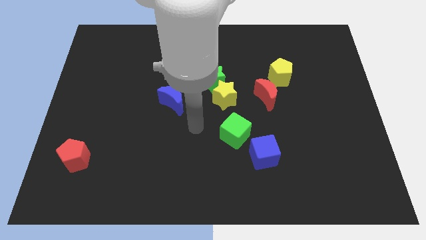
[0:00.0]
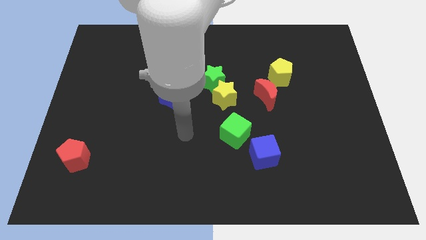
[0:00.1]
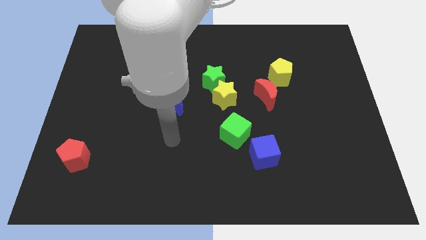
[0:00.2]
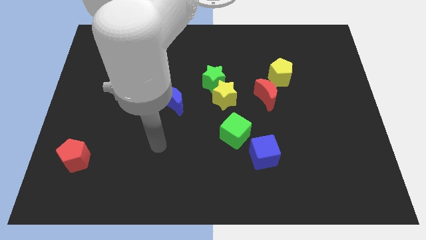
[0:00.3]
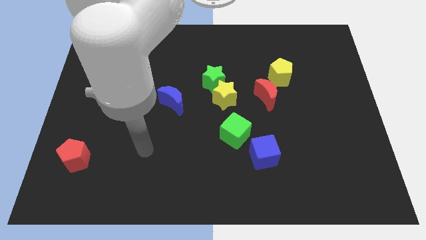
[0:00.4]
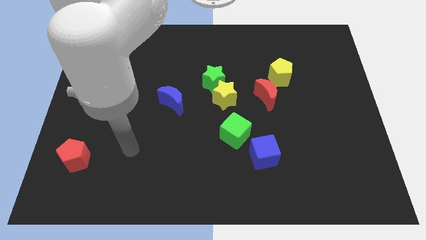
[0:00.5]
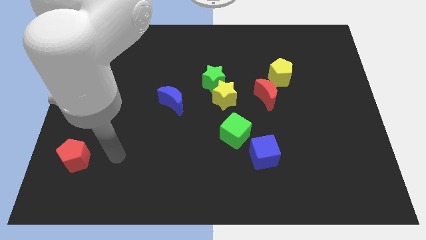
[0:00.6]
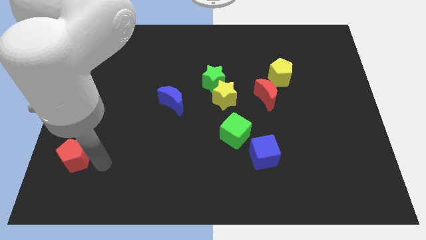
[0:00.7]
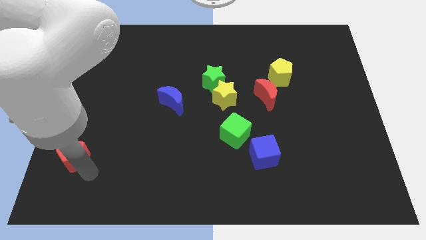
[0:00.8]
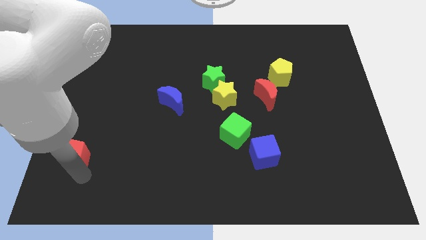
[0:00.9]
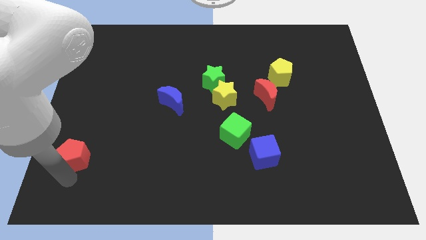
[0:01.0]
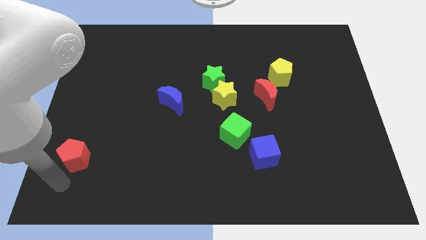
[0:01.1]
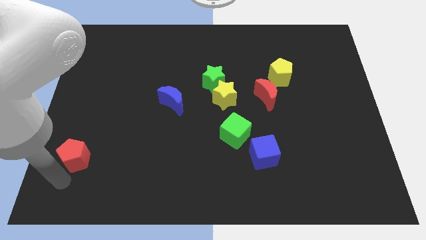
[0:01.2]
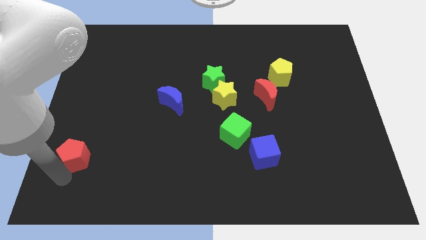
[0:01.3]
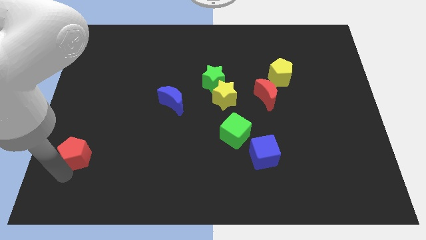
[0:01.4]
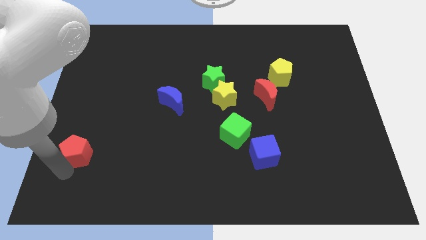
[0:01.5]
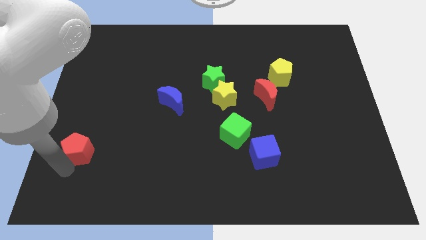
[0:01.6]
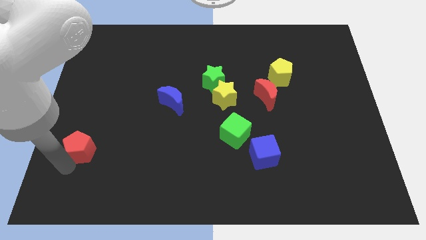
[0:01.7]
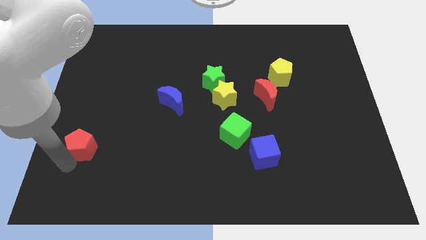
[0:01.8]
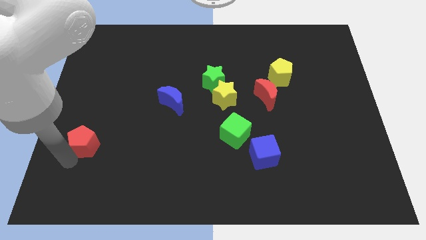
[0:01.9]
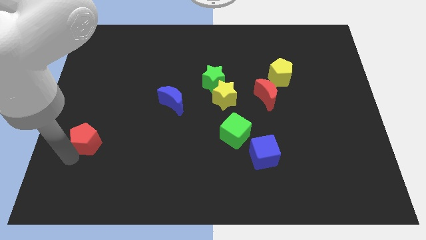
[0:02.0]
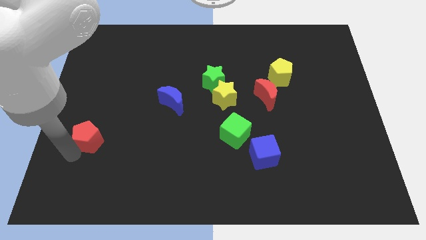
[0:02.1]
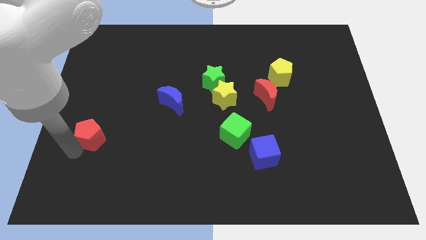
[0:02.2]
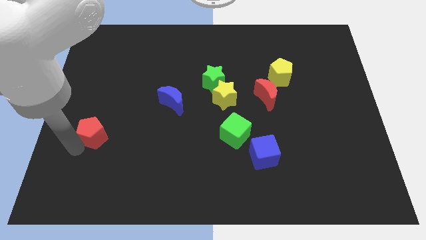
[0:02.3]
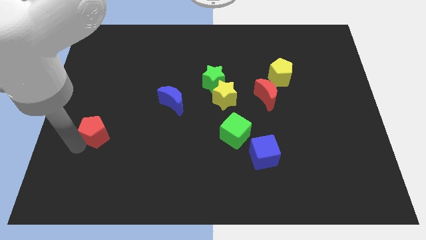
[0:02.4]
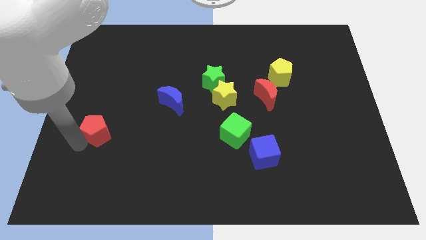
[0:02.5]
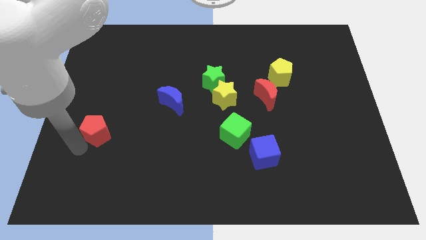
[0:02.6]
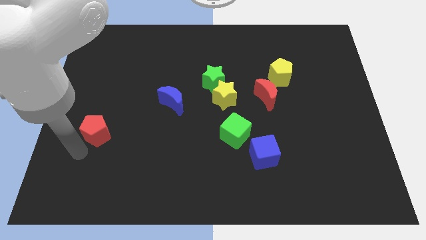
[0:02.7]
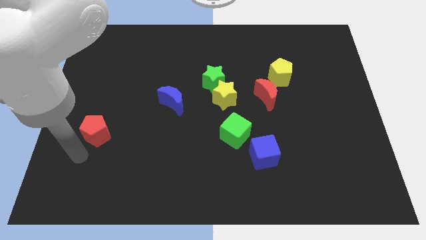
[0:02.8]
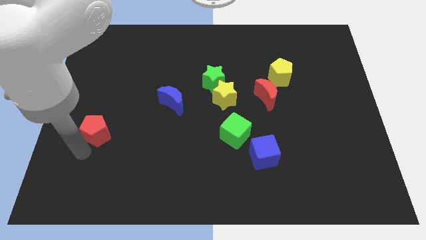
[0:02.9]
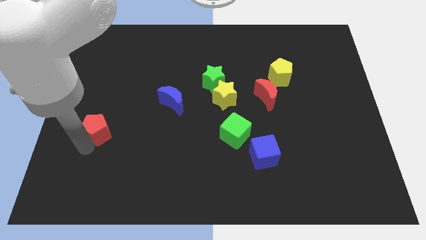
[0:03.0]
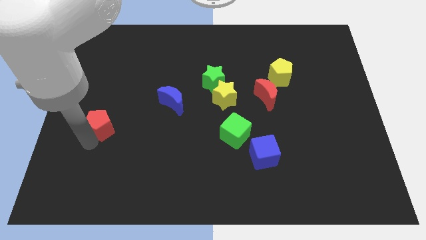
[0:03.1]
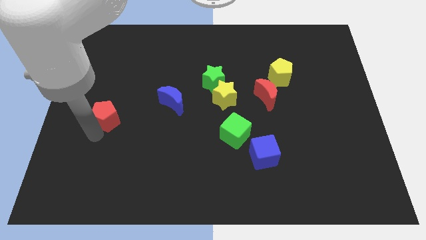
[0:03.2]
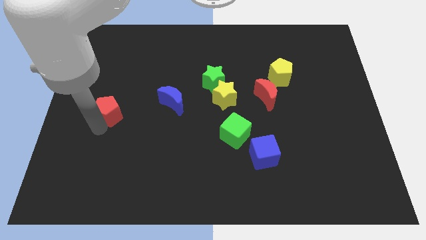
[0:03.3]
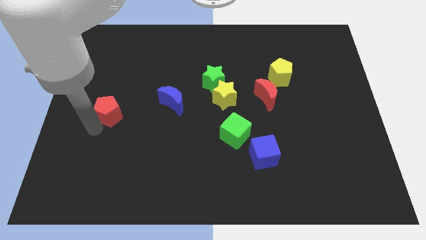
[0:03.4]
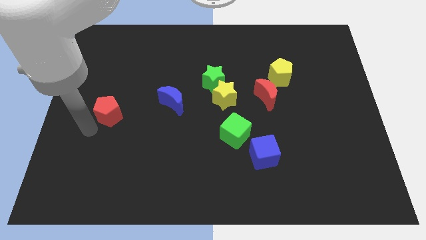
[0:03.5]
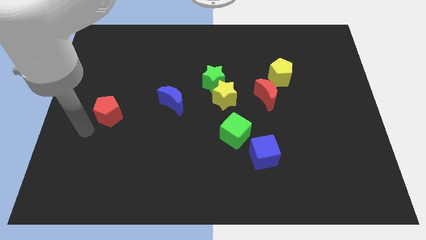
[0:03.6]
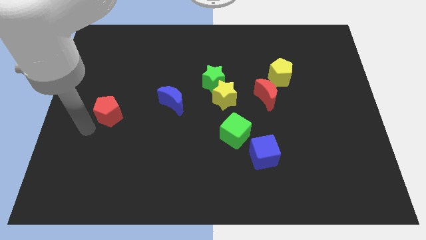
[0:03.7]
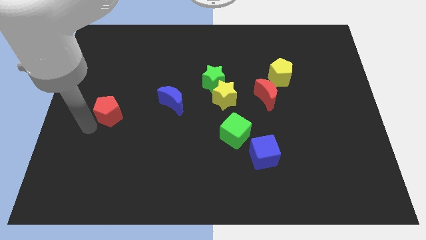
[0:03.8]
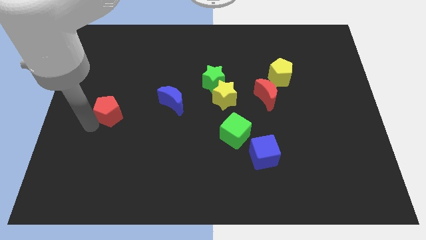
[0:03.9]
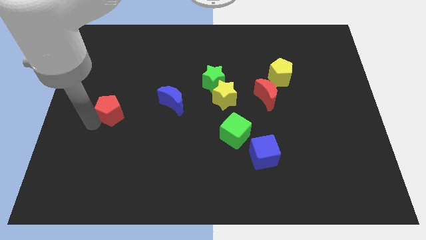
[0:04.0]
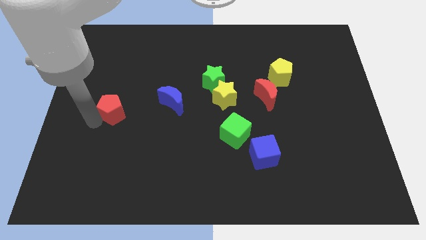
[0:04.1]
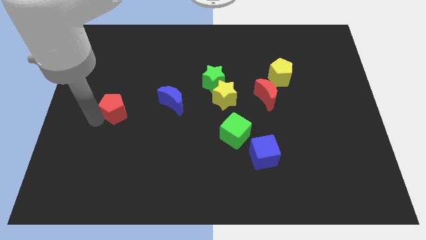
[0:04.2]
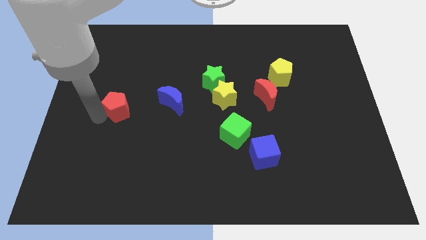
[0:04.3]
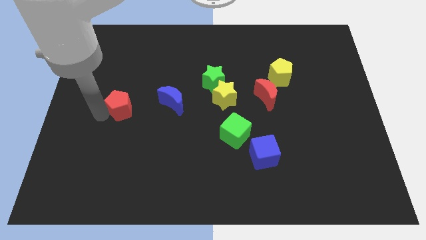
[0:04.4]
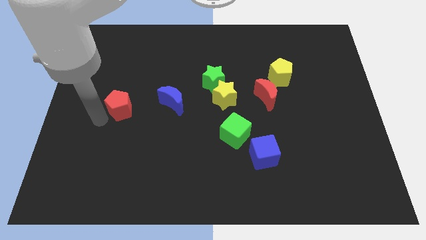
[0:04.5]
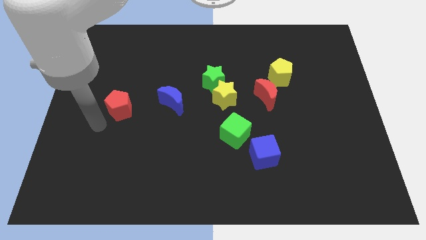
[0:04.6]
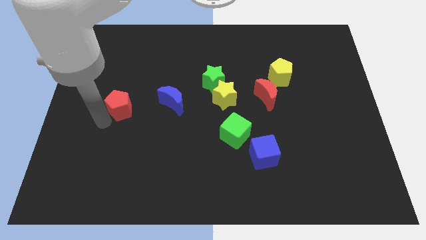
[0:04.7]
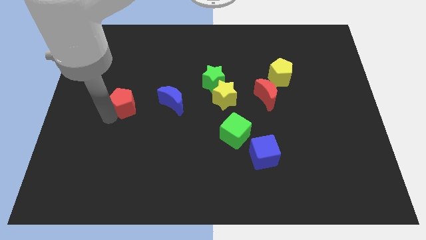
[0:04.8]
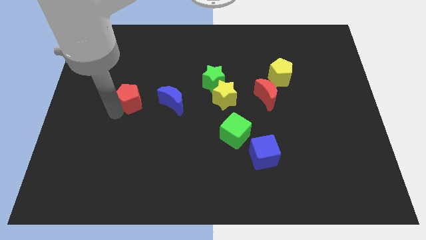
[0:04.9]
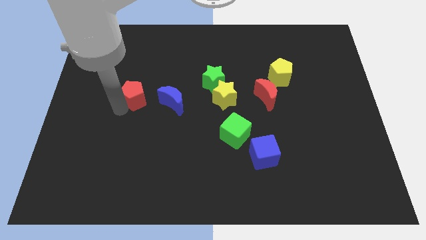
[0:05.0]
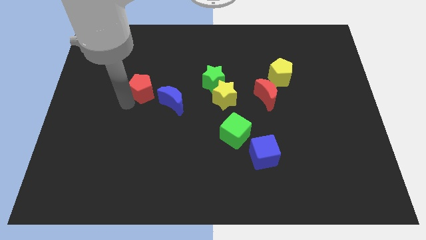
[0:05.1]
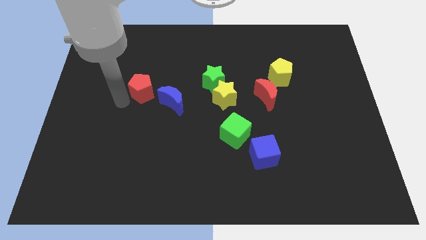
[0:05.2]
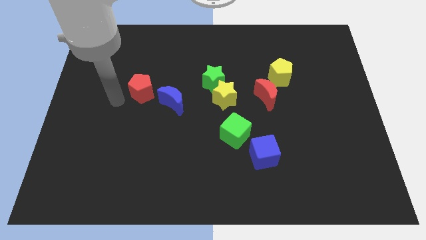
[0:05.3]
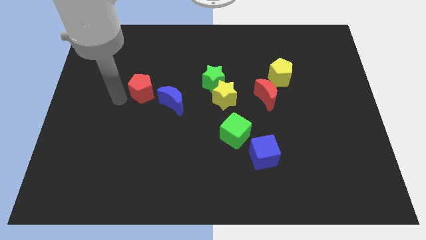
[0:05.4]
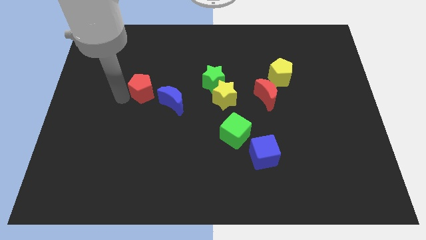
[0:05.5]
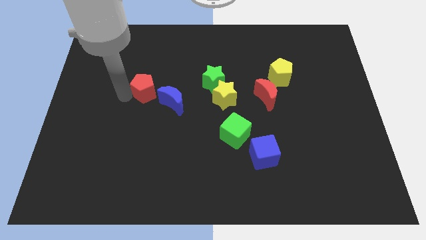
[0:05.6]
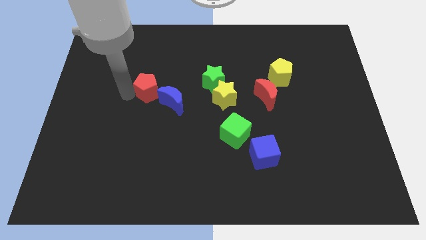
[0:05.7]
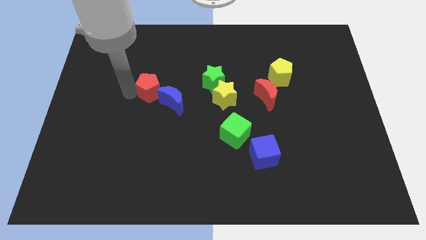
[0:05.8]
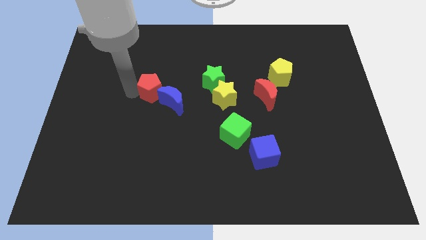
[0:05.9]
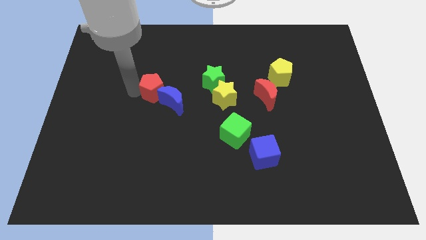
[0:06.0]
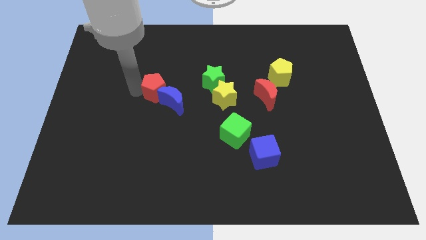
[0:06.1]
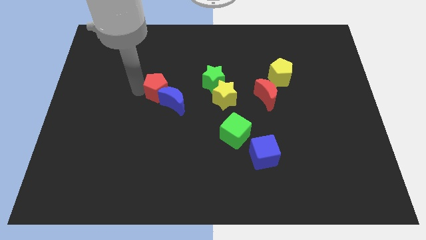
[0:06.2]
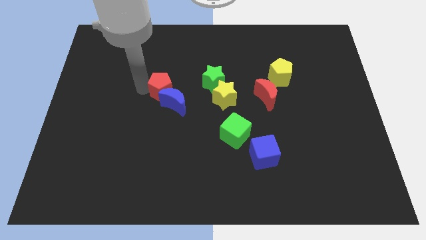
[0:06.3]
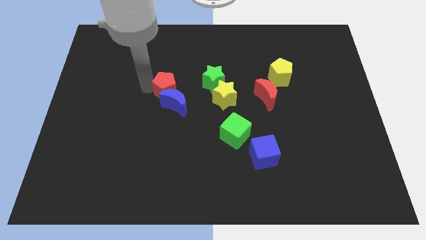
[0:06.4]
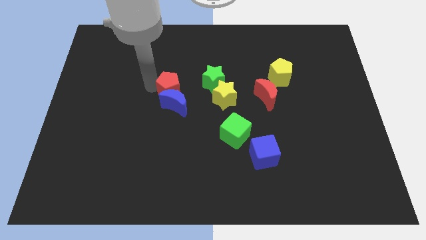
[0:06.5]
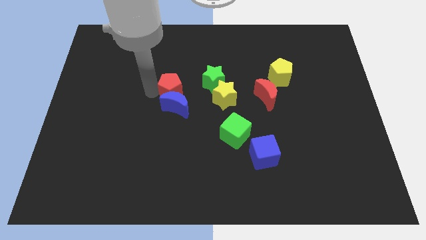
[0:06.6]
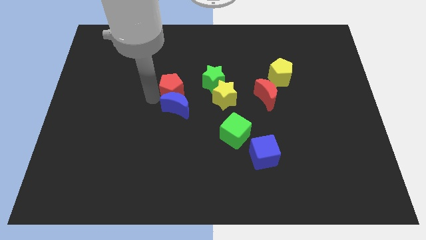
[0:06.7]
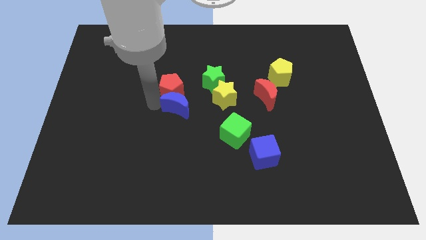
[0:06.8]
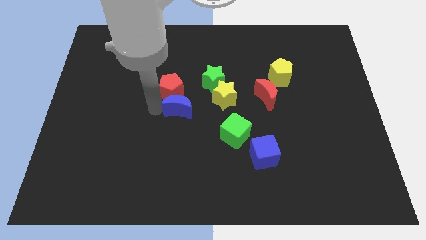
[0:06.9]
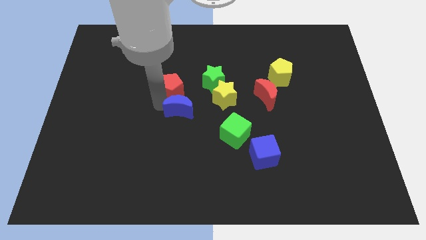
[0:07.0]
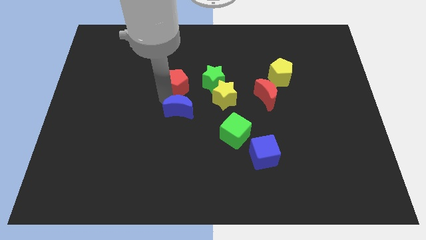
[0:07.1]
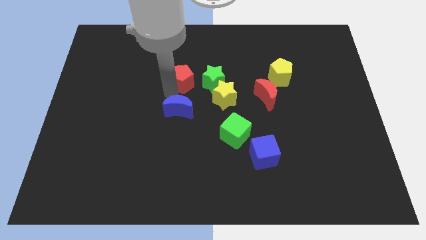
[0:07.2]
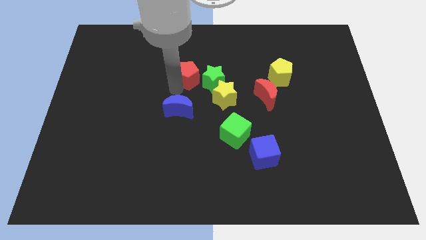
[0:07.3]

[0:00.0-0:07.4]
move the red pentagon to the top left side of the green star
